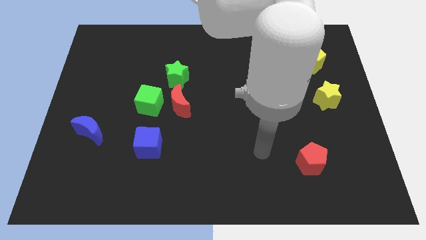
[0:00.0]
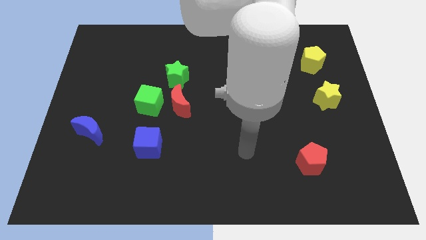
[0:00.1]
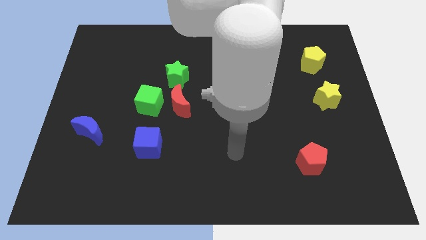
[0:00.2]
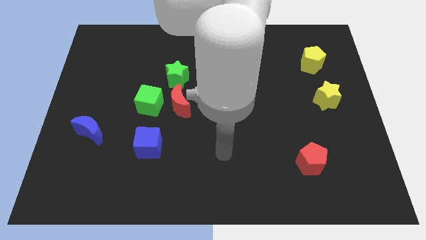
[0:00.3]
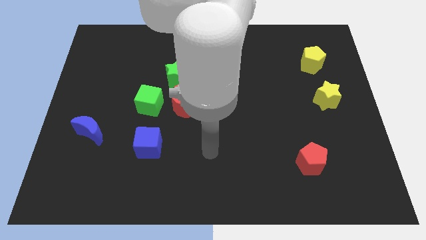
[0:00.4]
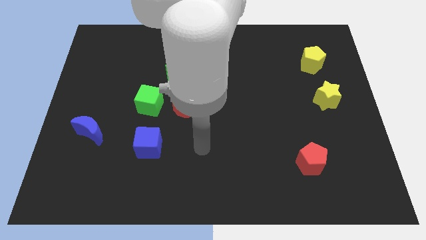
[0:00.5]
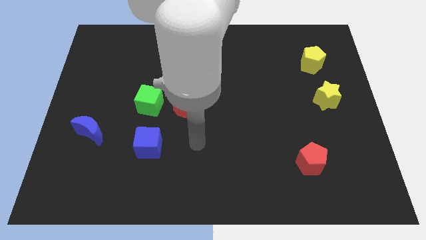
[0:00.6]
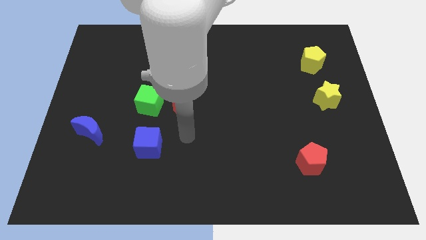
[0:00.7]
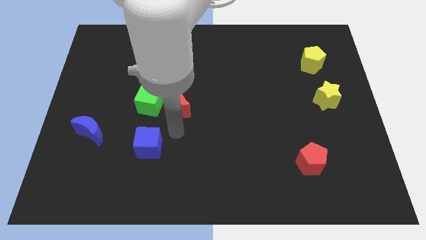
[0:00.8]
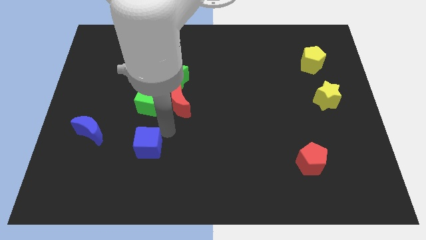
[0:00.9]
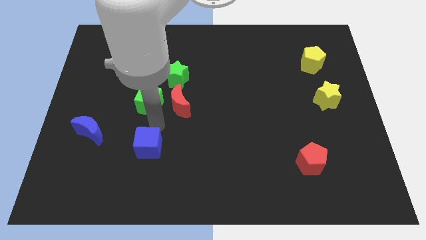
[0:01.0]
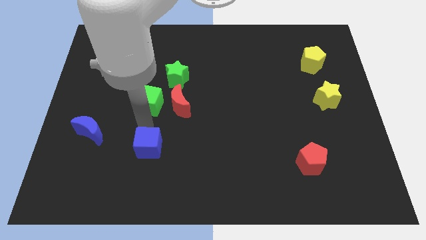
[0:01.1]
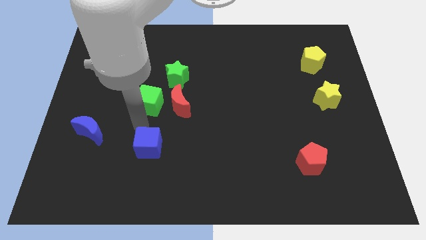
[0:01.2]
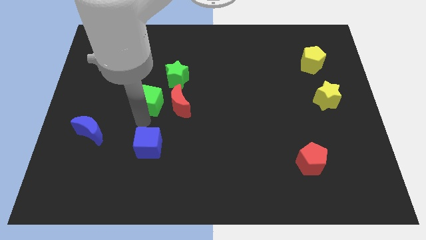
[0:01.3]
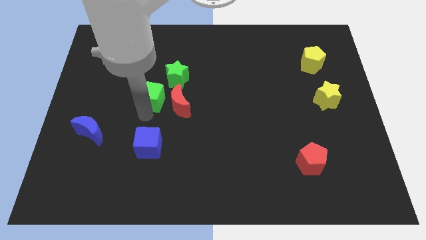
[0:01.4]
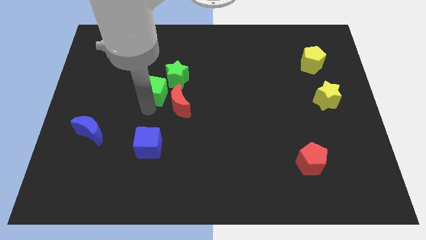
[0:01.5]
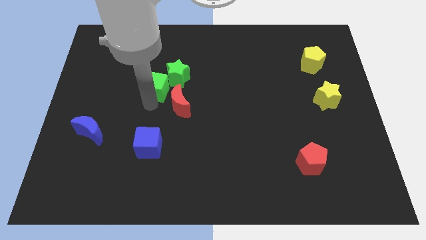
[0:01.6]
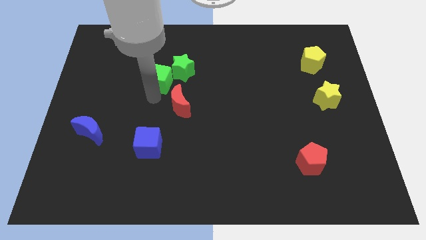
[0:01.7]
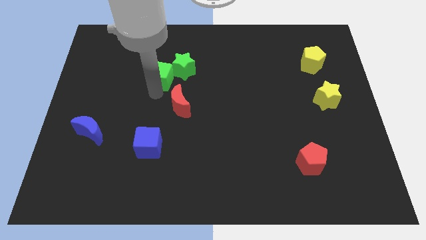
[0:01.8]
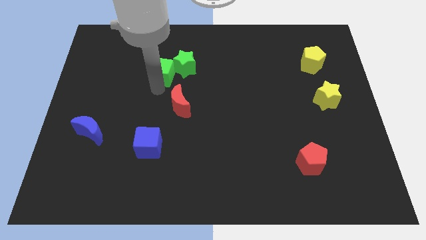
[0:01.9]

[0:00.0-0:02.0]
slightly move the green cube diagonally up and to the right

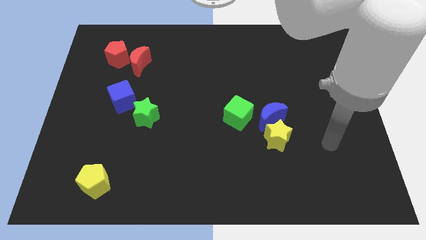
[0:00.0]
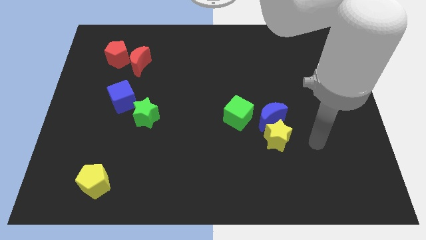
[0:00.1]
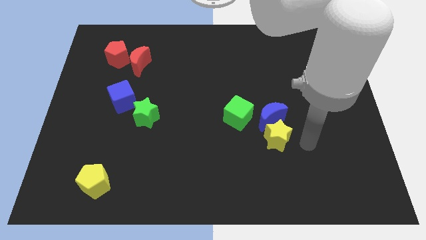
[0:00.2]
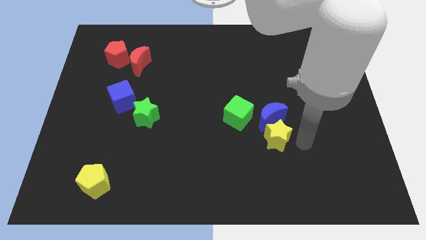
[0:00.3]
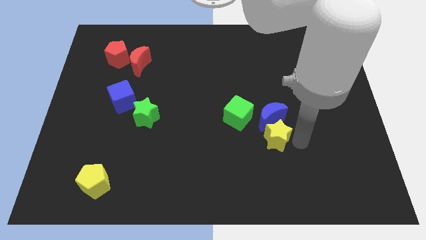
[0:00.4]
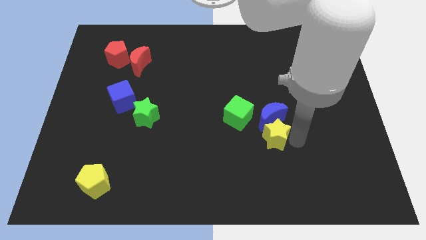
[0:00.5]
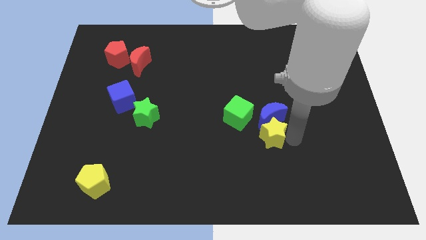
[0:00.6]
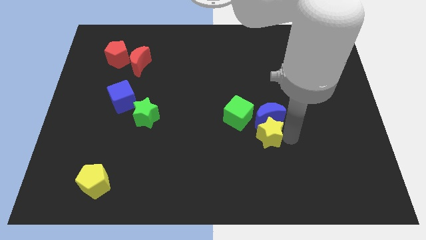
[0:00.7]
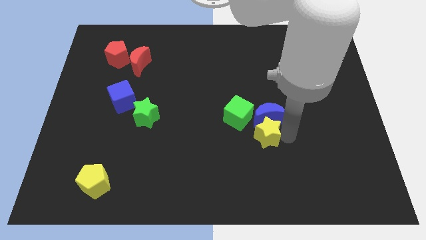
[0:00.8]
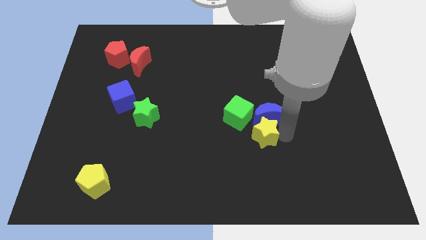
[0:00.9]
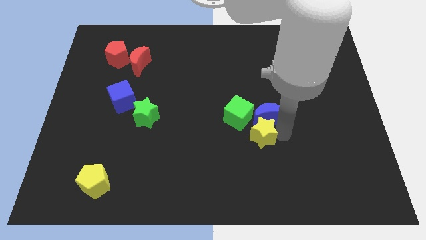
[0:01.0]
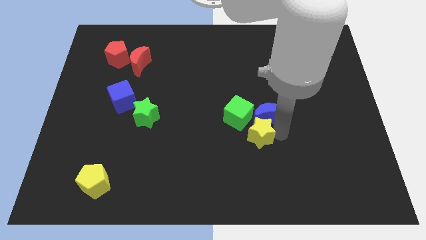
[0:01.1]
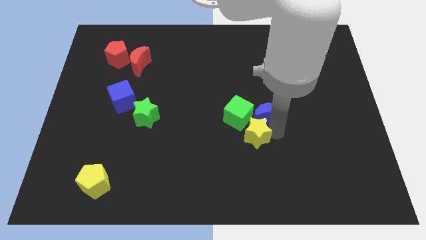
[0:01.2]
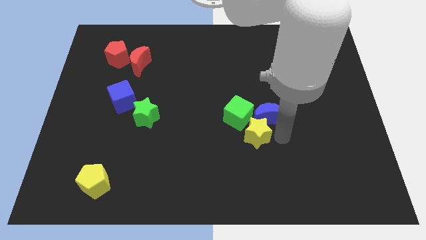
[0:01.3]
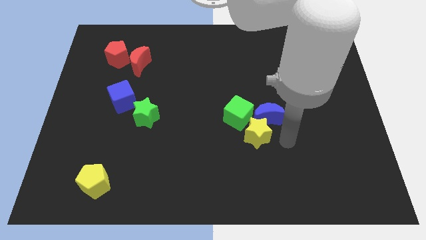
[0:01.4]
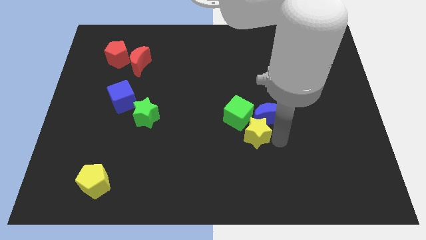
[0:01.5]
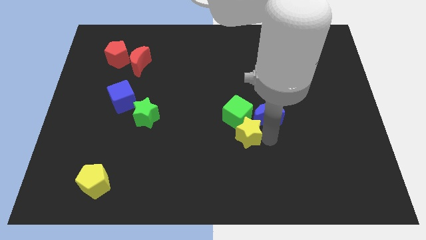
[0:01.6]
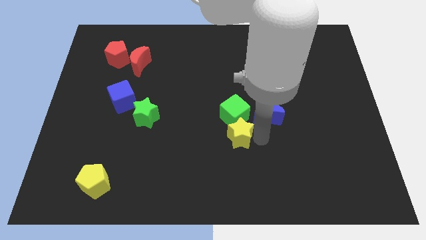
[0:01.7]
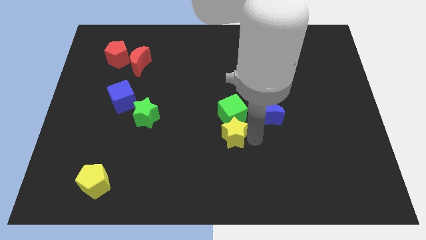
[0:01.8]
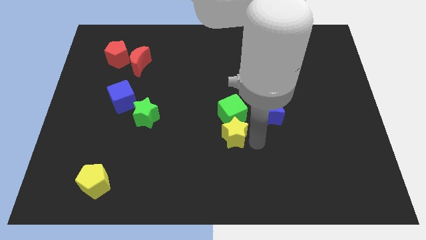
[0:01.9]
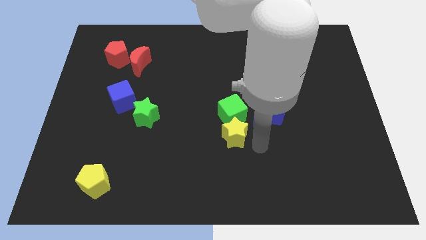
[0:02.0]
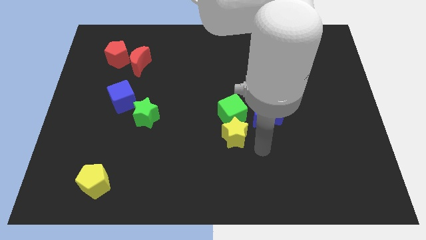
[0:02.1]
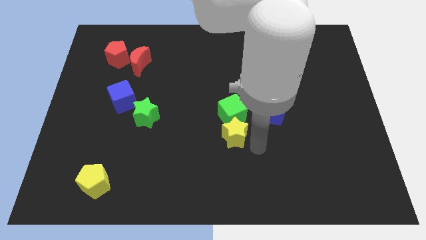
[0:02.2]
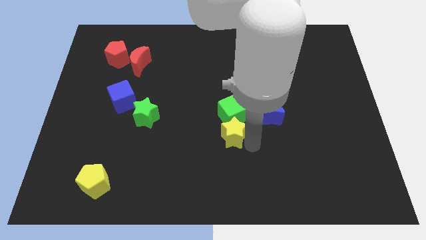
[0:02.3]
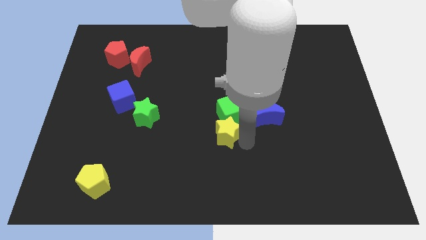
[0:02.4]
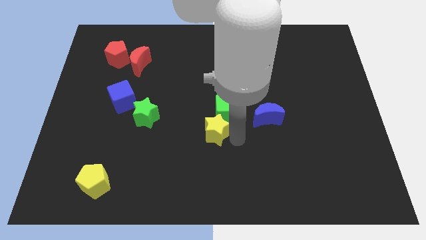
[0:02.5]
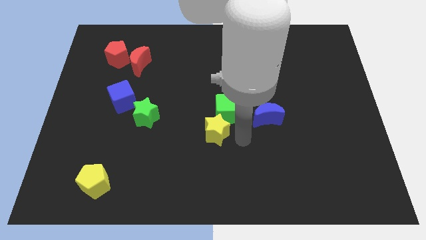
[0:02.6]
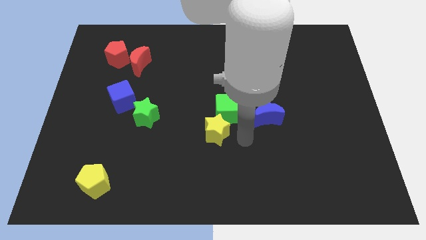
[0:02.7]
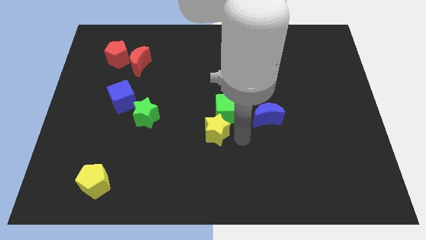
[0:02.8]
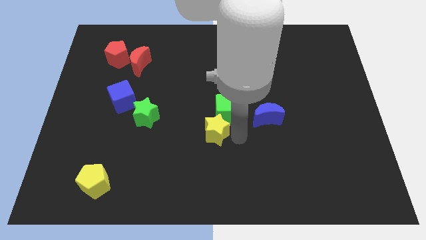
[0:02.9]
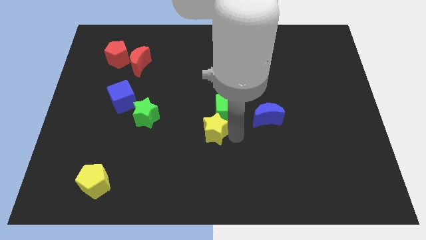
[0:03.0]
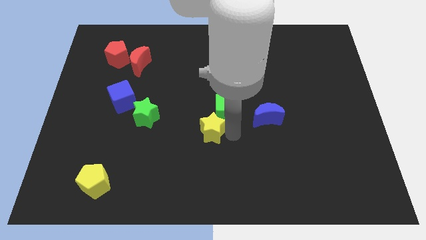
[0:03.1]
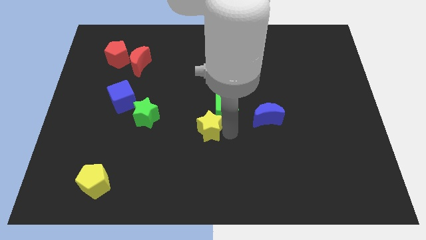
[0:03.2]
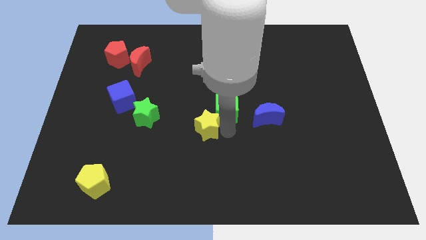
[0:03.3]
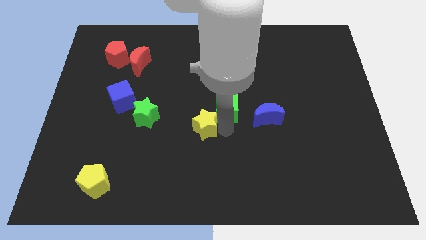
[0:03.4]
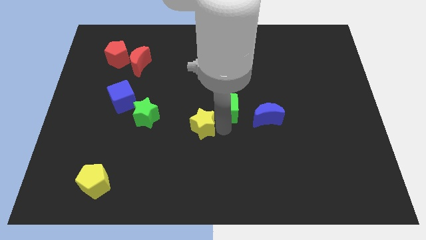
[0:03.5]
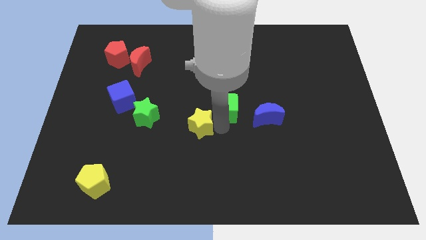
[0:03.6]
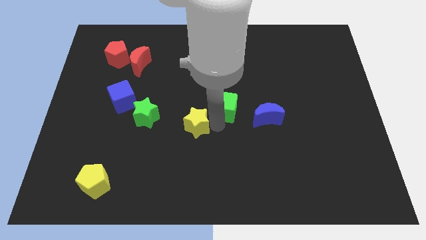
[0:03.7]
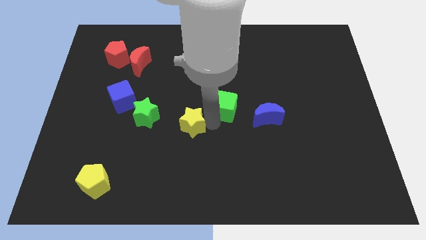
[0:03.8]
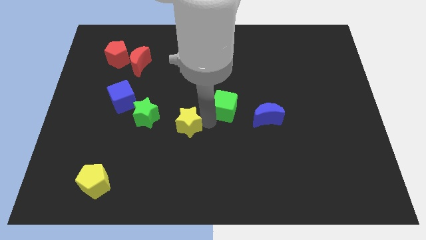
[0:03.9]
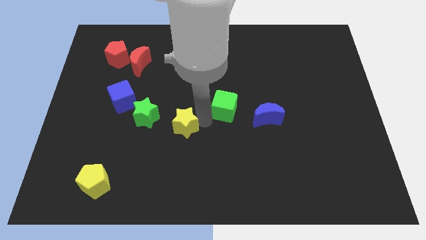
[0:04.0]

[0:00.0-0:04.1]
move the yellow star to the left

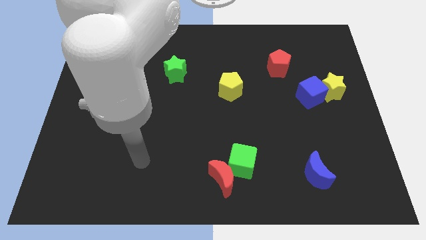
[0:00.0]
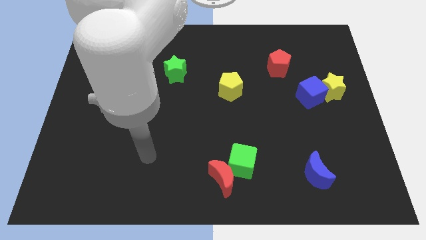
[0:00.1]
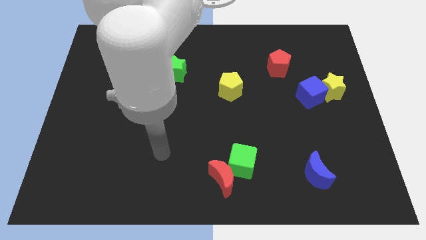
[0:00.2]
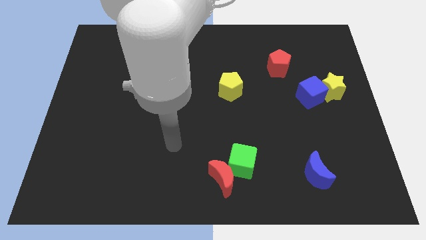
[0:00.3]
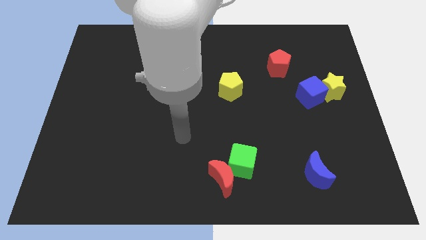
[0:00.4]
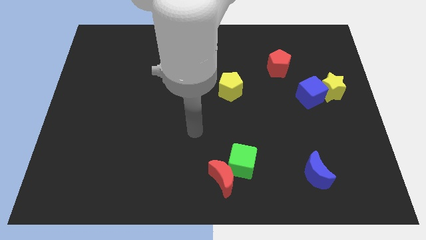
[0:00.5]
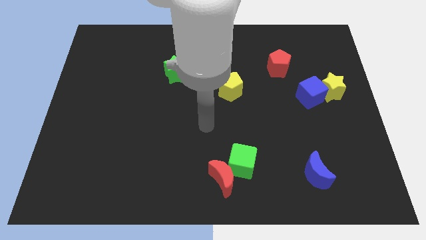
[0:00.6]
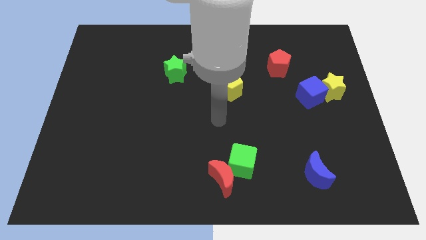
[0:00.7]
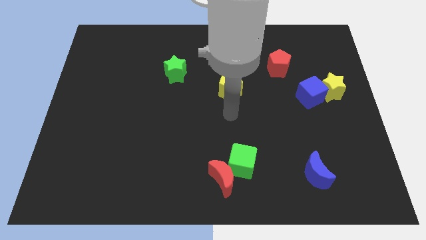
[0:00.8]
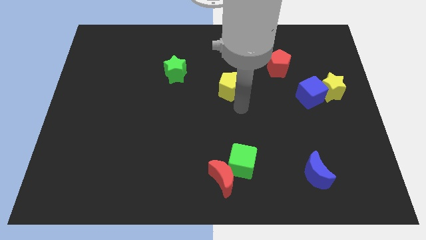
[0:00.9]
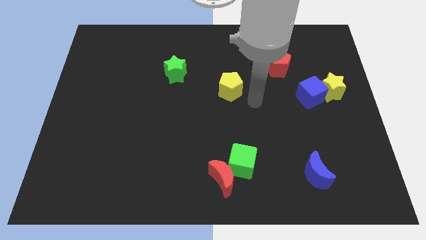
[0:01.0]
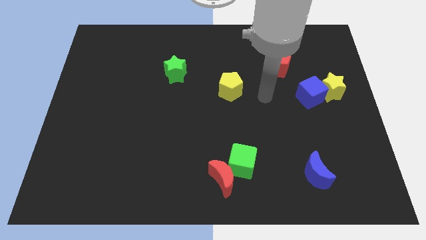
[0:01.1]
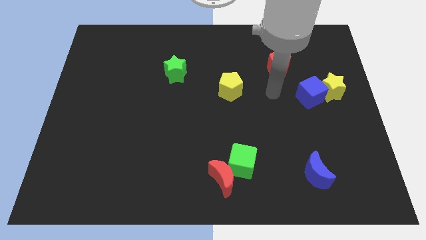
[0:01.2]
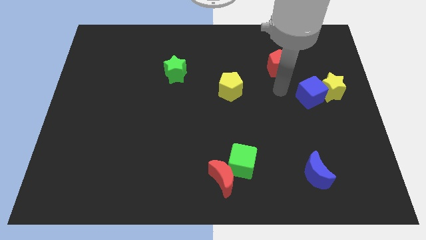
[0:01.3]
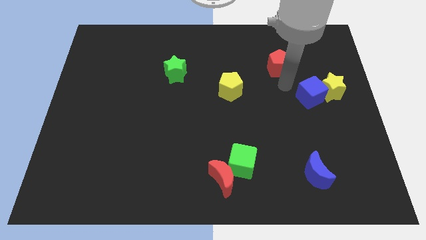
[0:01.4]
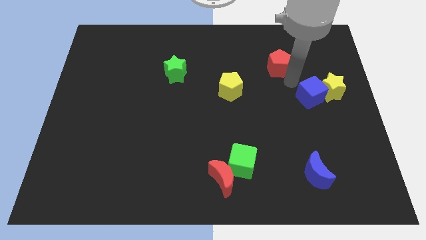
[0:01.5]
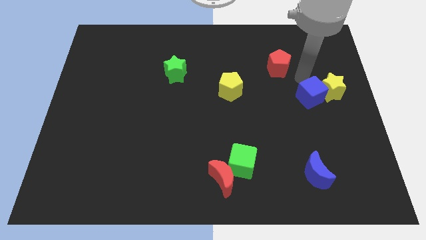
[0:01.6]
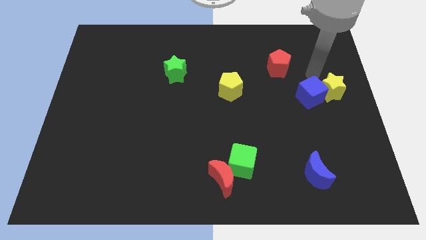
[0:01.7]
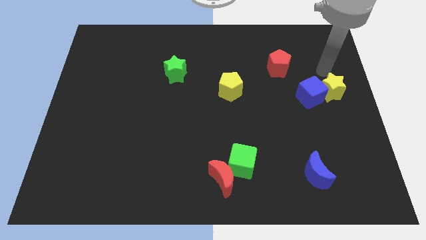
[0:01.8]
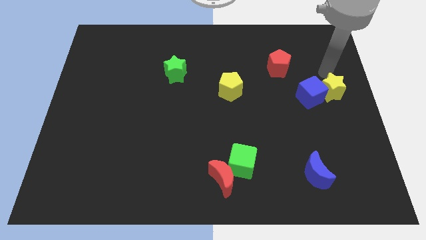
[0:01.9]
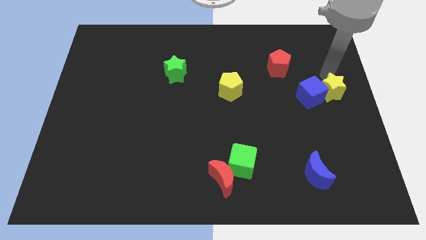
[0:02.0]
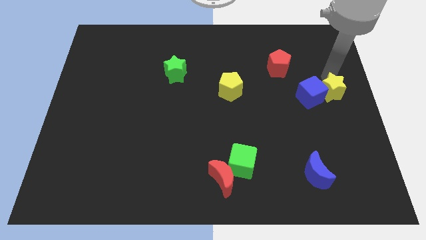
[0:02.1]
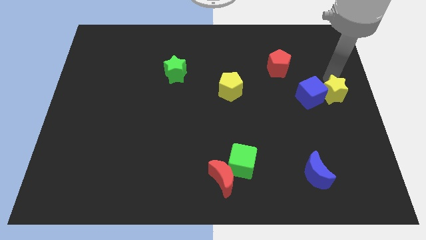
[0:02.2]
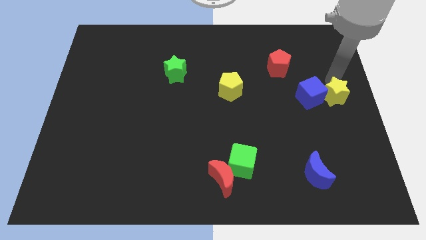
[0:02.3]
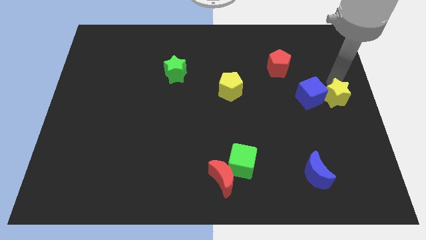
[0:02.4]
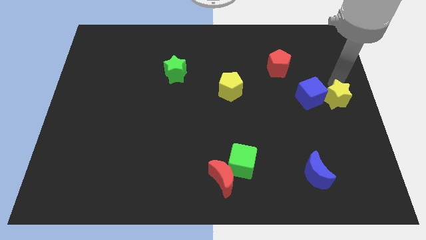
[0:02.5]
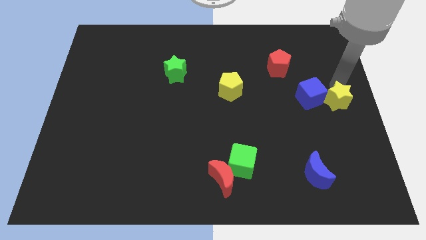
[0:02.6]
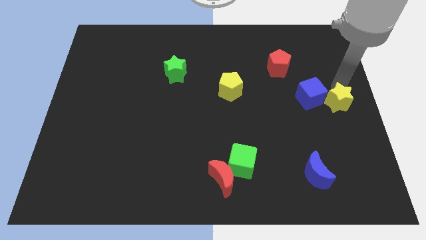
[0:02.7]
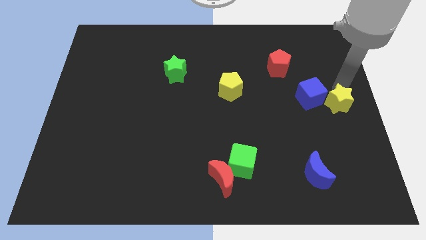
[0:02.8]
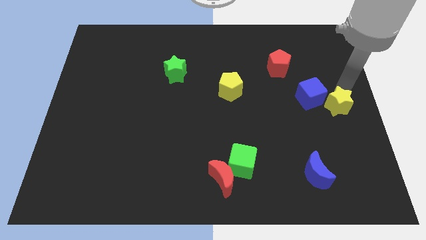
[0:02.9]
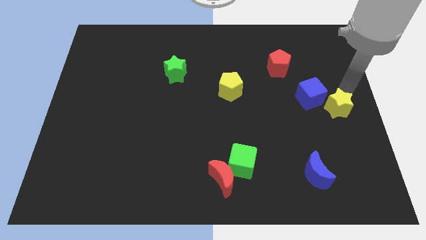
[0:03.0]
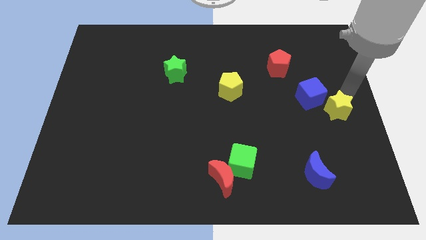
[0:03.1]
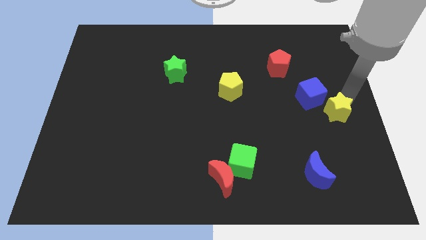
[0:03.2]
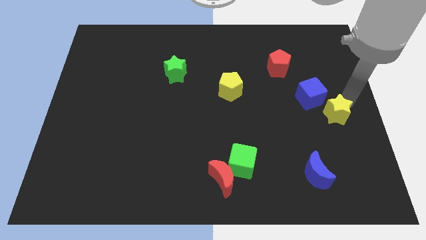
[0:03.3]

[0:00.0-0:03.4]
slightly slide the yellow star down
